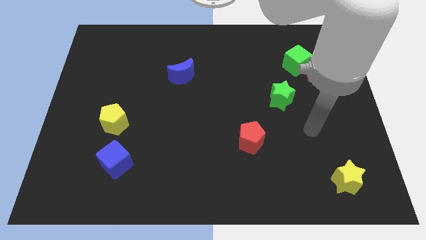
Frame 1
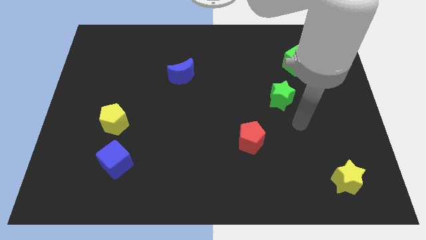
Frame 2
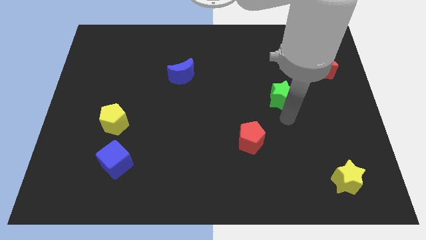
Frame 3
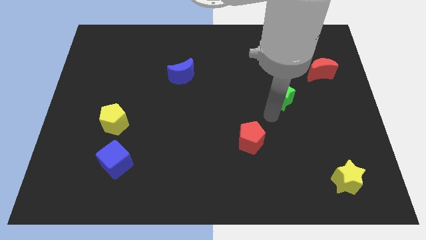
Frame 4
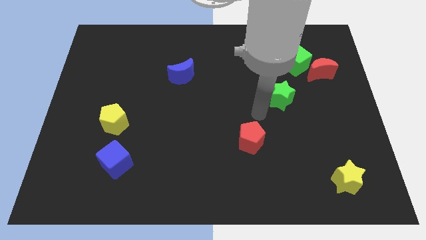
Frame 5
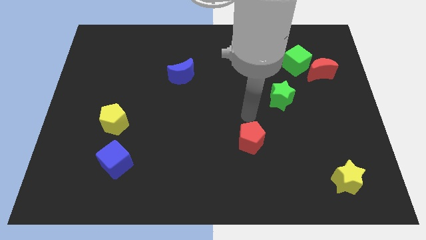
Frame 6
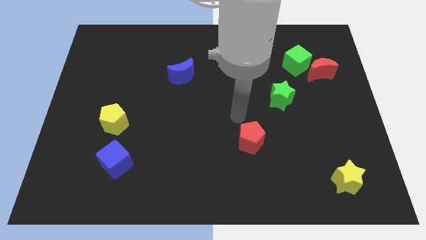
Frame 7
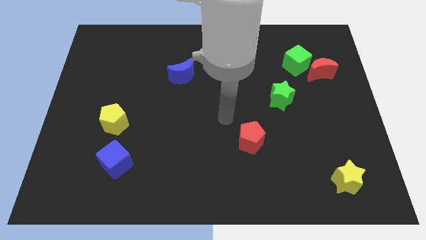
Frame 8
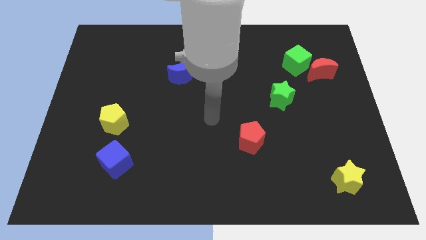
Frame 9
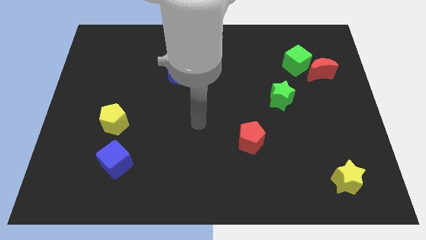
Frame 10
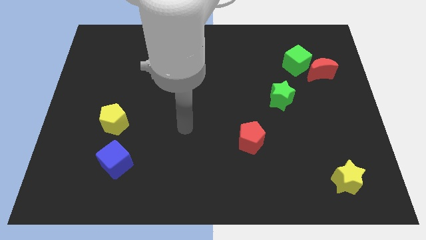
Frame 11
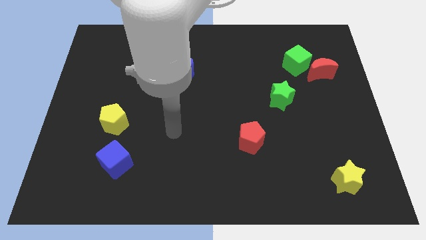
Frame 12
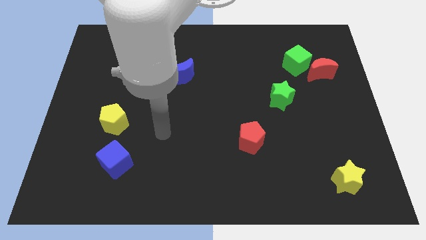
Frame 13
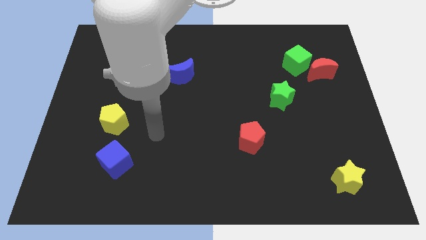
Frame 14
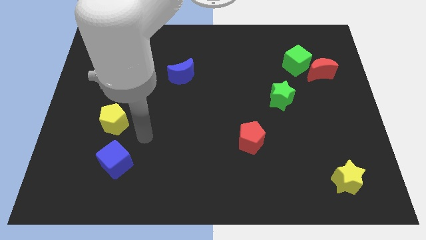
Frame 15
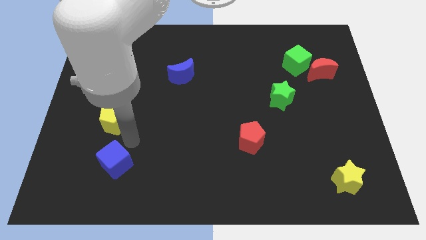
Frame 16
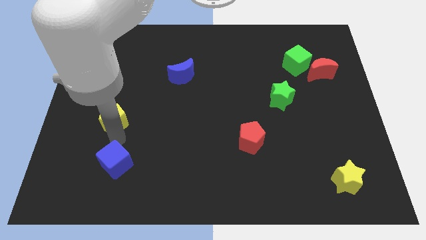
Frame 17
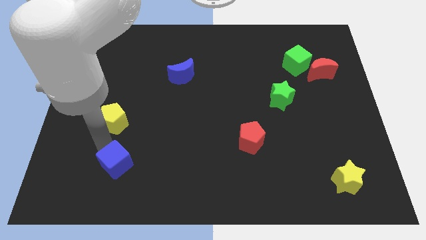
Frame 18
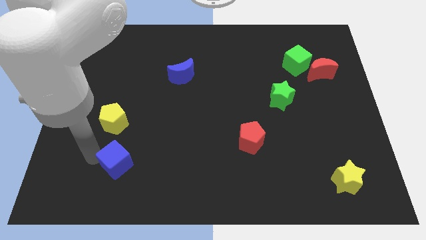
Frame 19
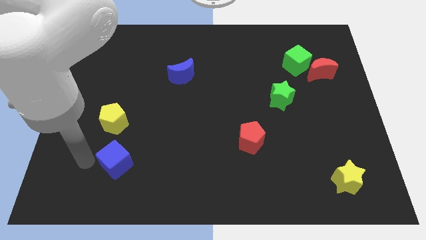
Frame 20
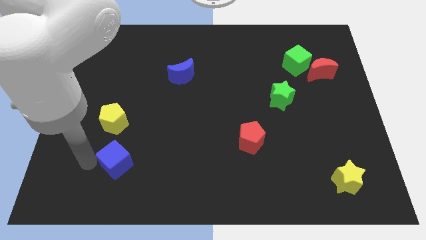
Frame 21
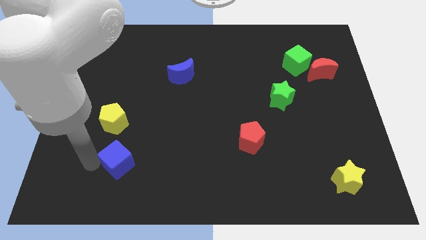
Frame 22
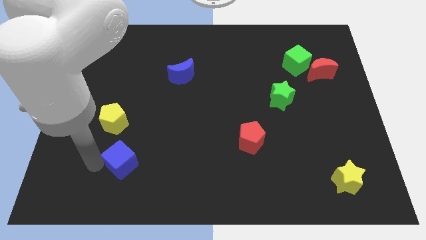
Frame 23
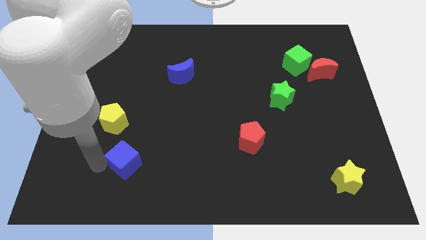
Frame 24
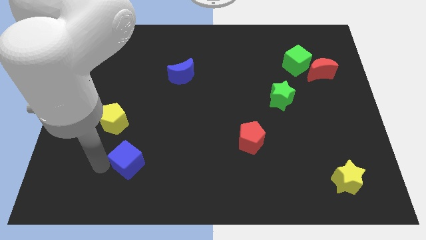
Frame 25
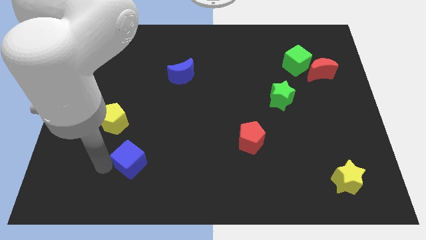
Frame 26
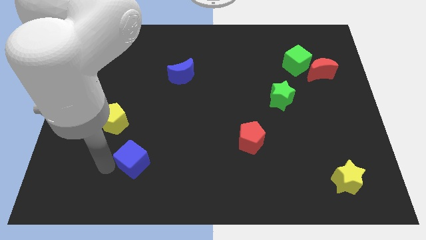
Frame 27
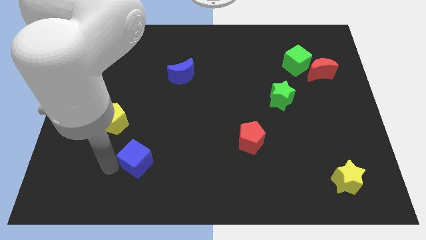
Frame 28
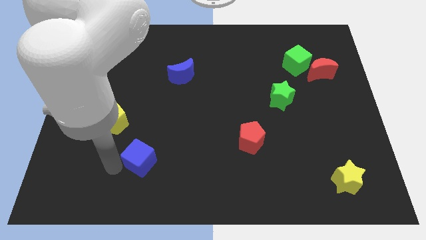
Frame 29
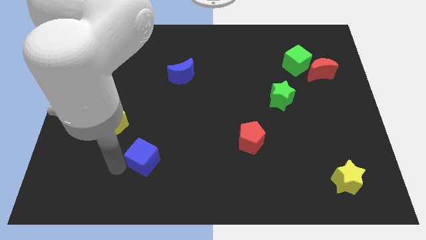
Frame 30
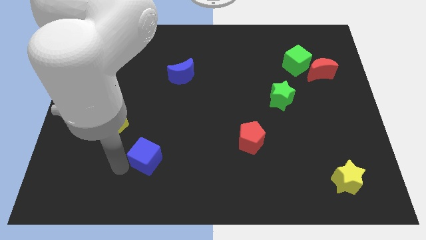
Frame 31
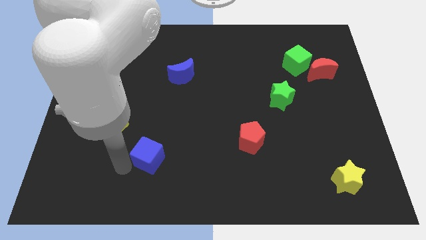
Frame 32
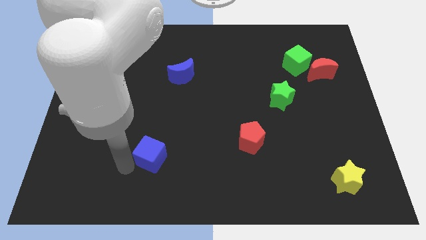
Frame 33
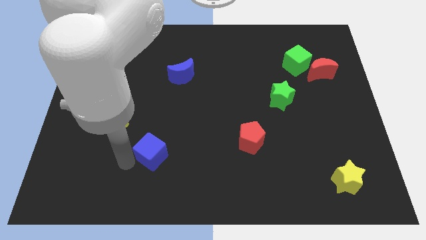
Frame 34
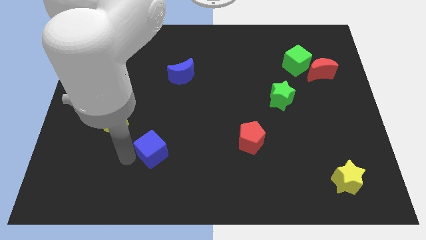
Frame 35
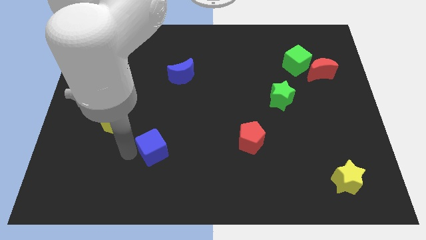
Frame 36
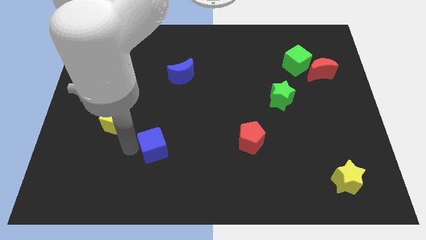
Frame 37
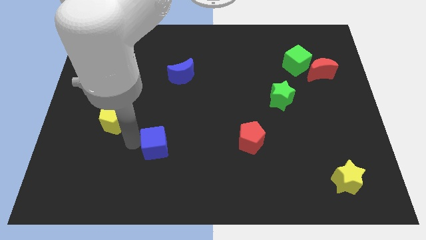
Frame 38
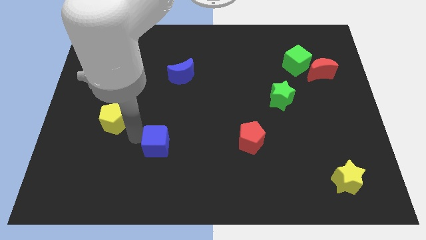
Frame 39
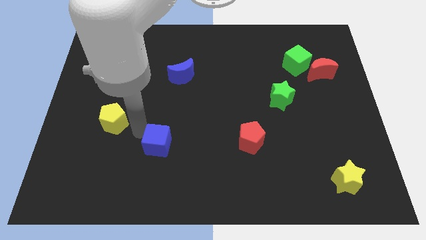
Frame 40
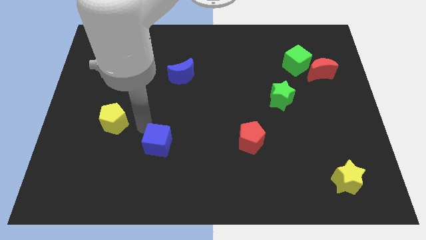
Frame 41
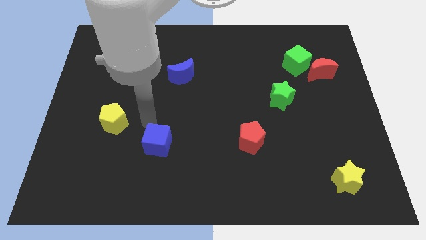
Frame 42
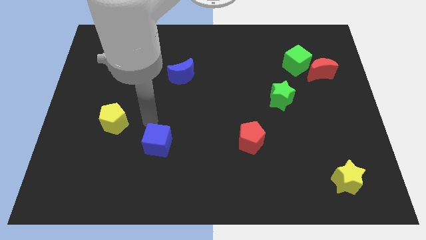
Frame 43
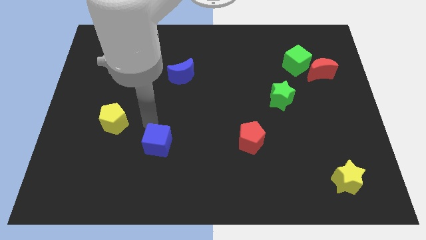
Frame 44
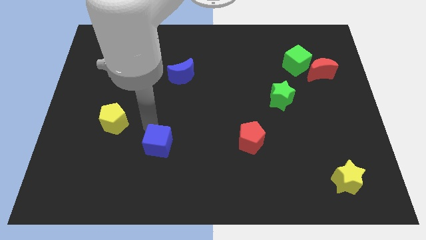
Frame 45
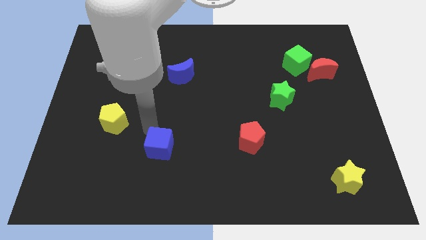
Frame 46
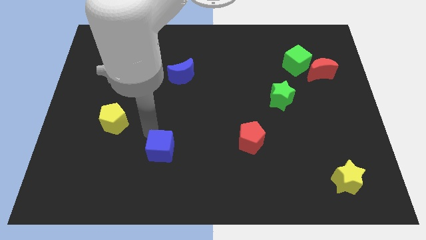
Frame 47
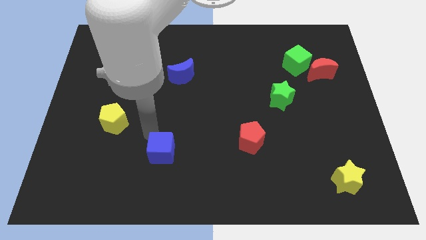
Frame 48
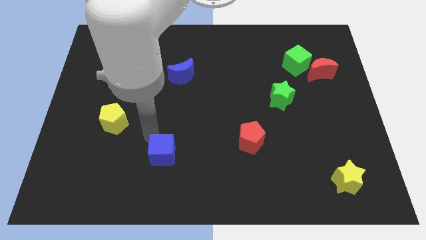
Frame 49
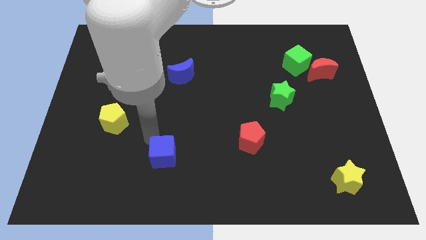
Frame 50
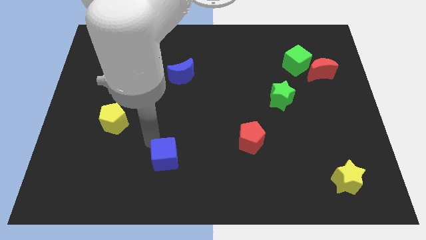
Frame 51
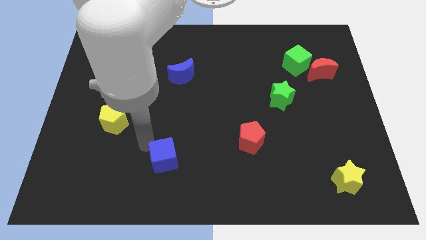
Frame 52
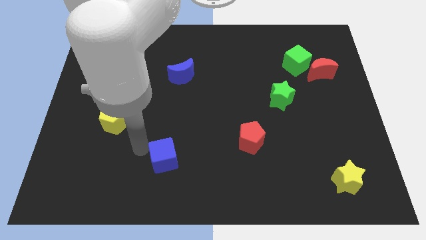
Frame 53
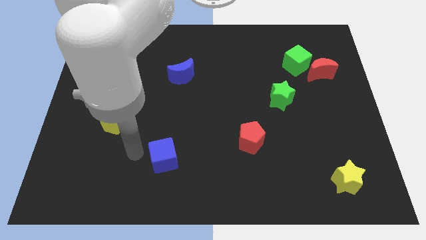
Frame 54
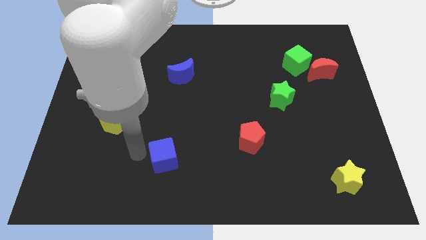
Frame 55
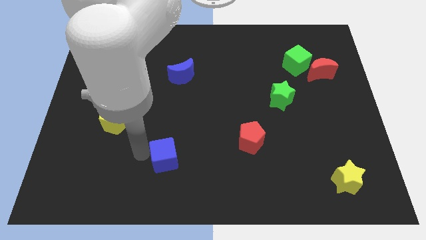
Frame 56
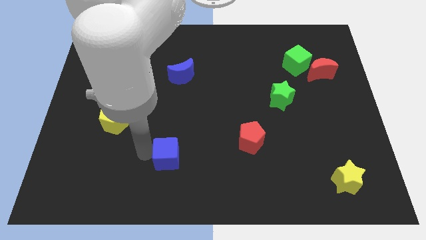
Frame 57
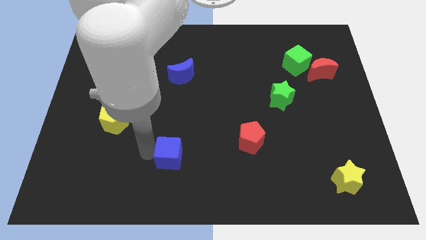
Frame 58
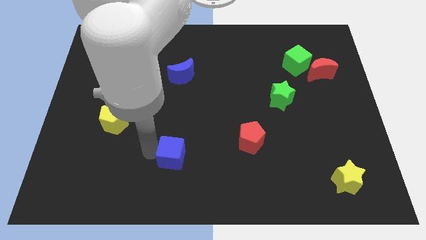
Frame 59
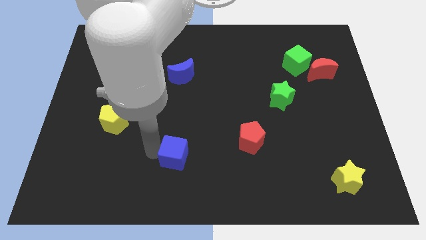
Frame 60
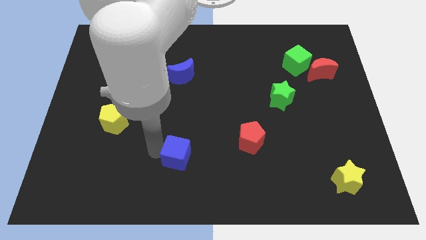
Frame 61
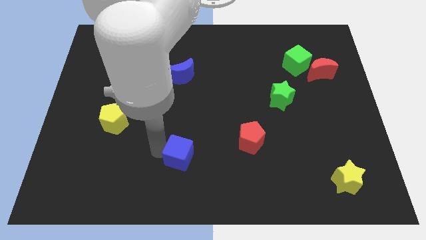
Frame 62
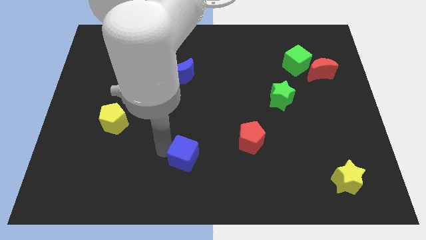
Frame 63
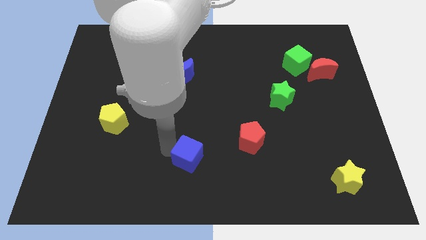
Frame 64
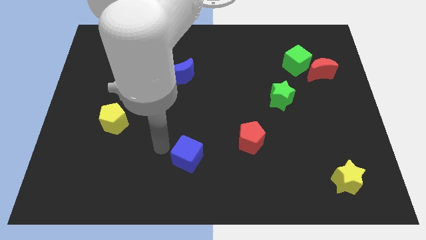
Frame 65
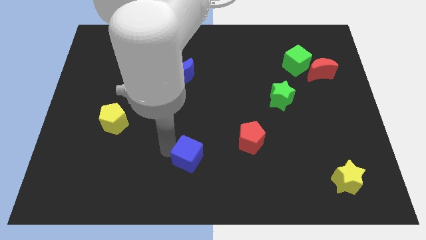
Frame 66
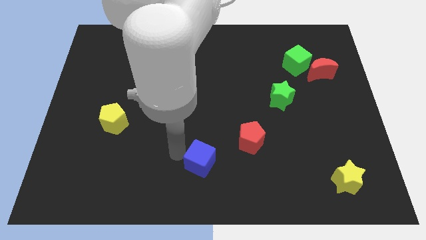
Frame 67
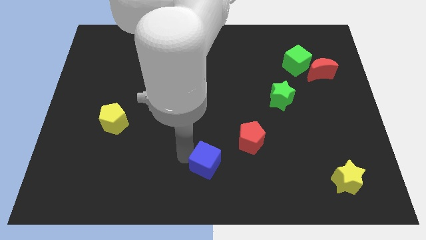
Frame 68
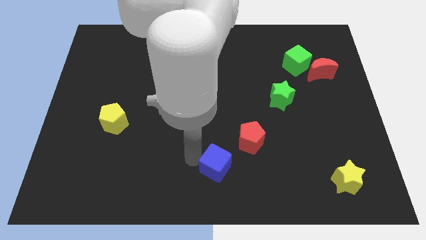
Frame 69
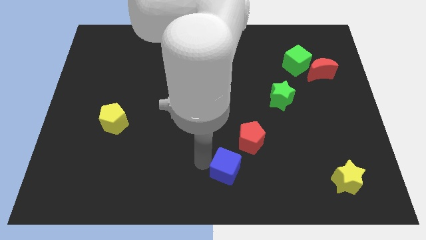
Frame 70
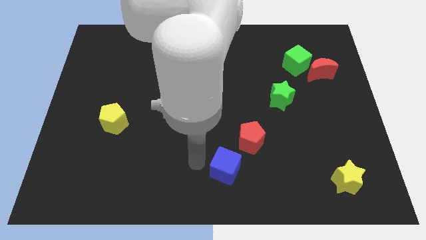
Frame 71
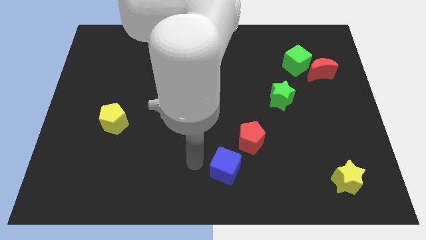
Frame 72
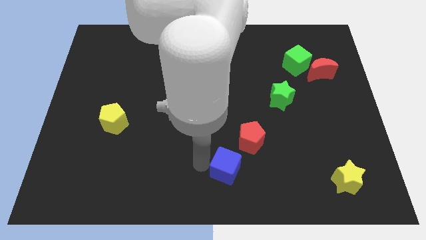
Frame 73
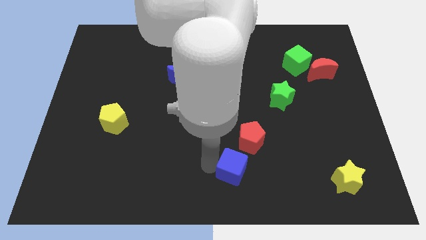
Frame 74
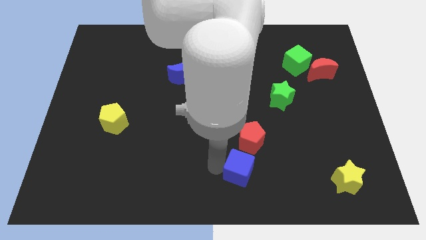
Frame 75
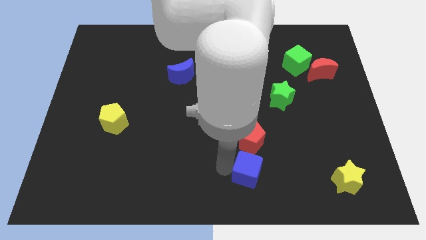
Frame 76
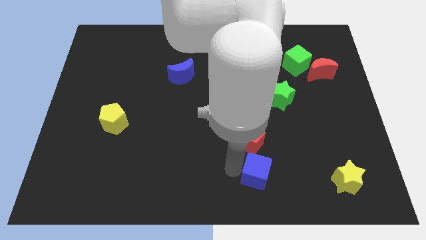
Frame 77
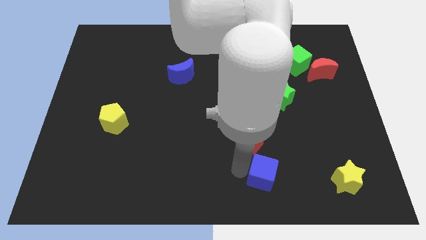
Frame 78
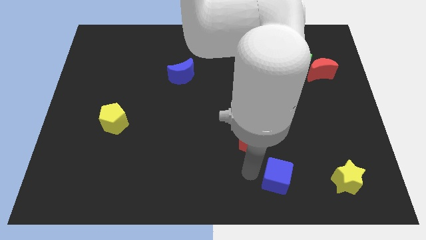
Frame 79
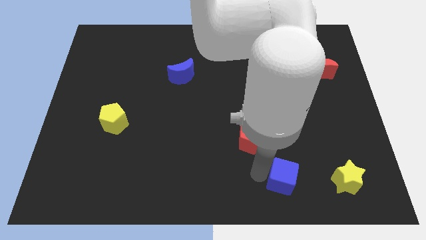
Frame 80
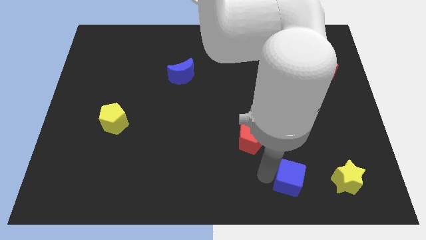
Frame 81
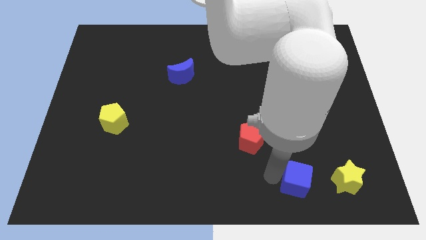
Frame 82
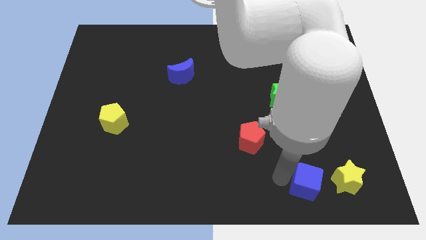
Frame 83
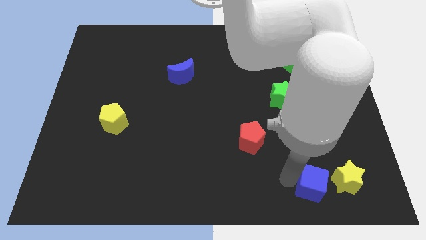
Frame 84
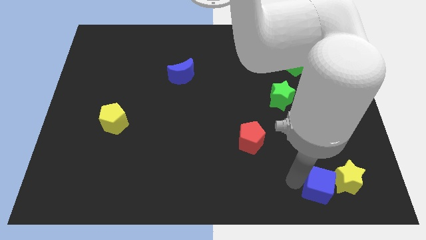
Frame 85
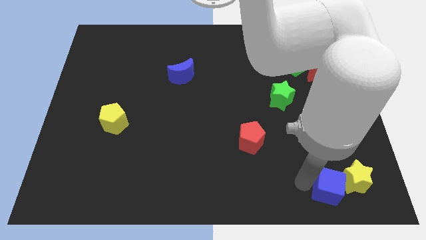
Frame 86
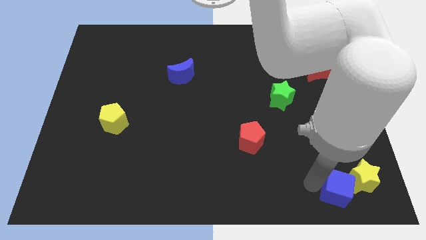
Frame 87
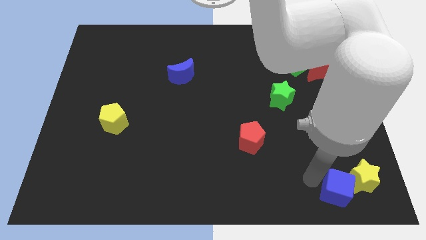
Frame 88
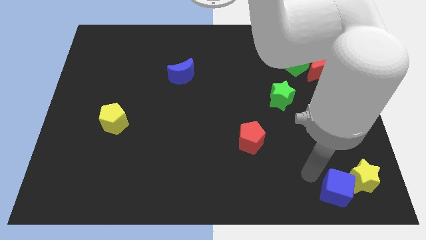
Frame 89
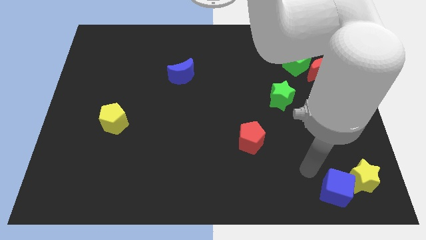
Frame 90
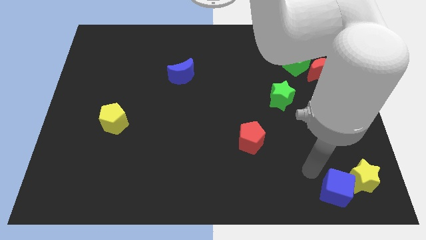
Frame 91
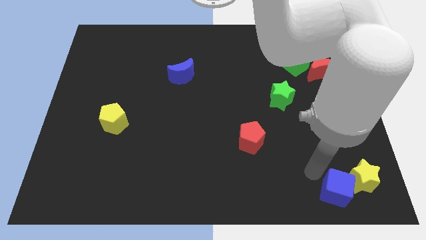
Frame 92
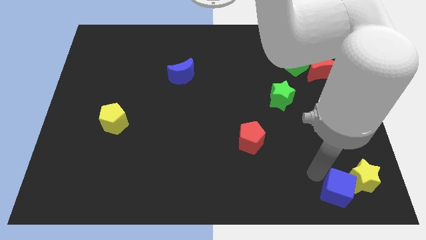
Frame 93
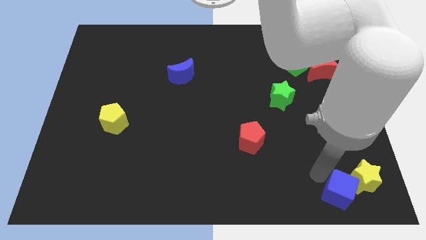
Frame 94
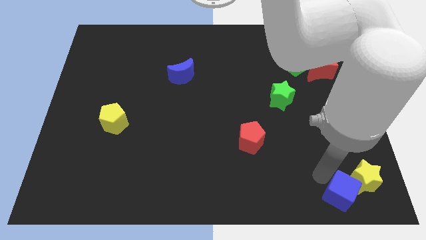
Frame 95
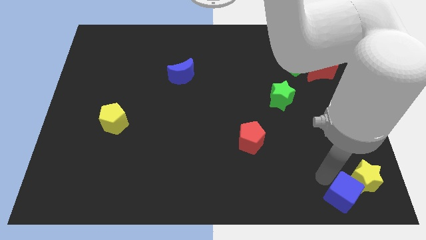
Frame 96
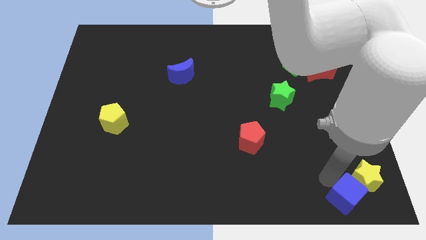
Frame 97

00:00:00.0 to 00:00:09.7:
put the blue cube to the bottom right of the board
